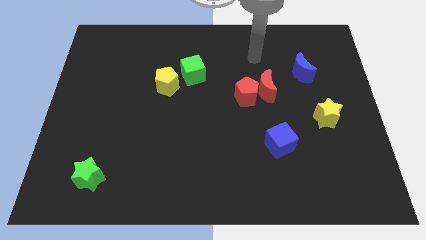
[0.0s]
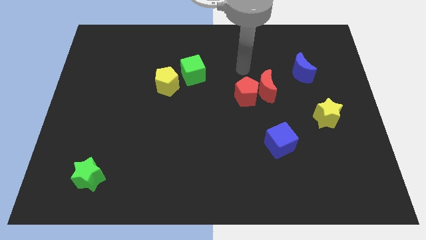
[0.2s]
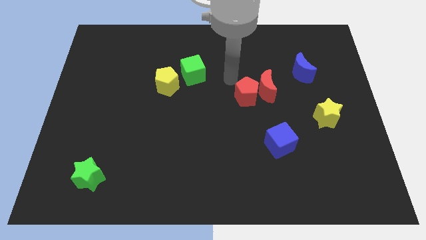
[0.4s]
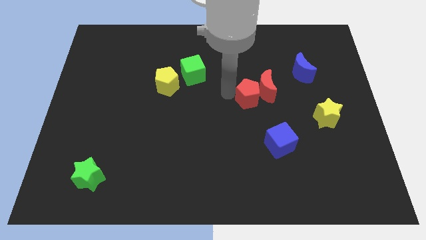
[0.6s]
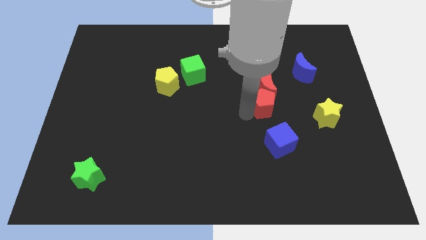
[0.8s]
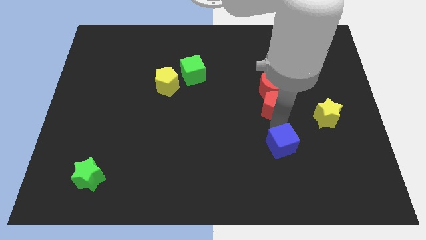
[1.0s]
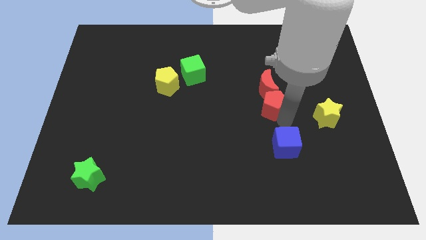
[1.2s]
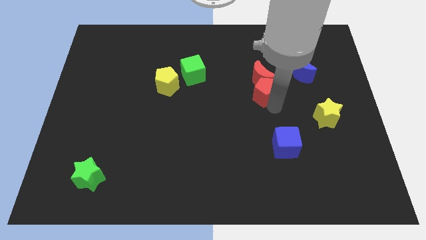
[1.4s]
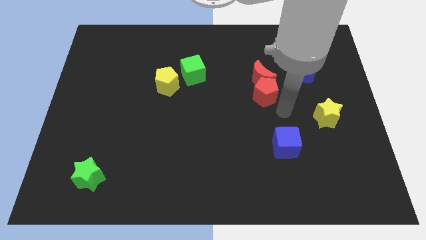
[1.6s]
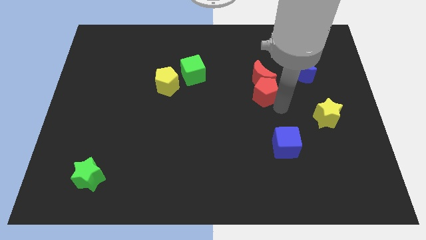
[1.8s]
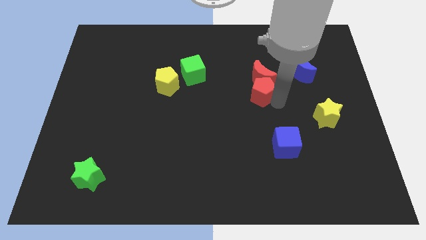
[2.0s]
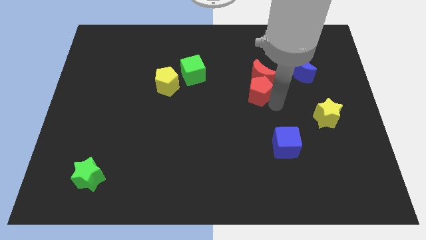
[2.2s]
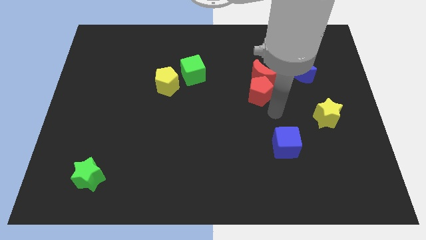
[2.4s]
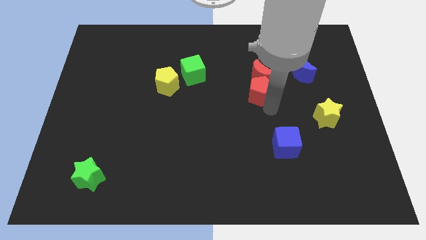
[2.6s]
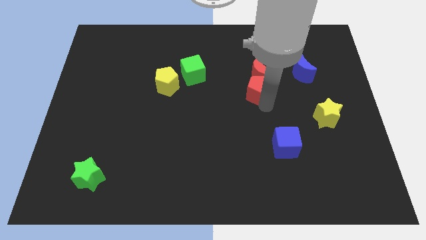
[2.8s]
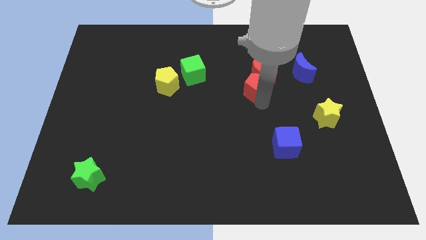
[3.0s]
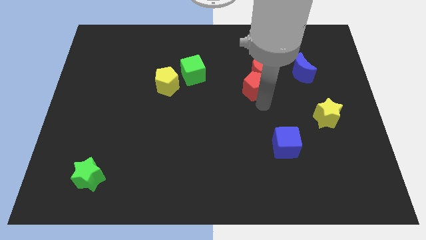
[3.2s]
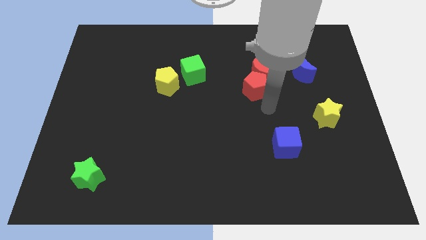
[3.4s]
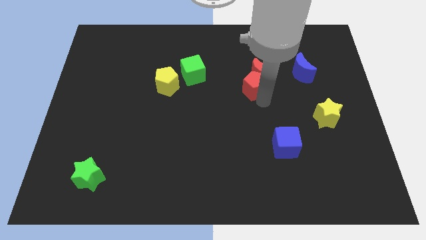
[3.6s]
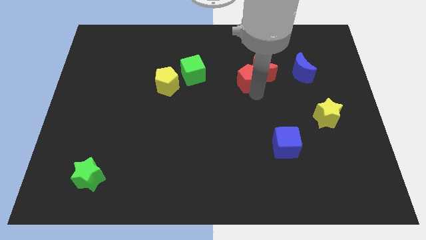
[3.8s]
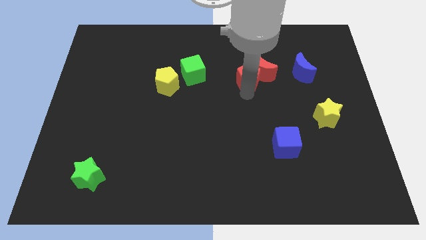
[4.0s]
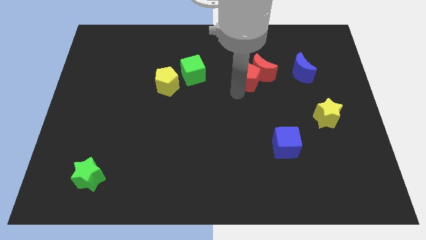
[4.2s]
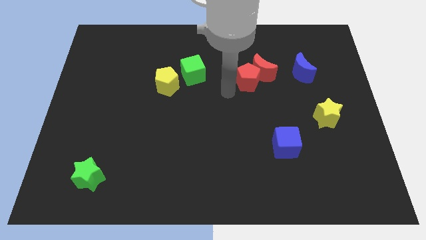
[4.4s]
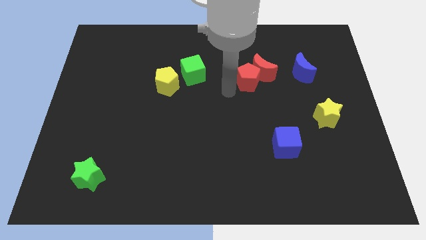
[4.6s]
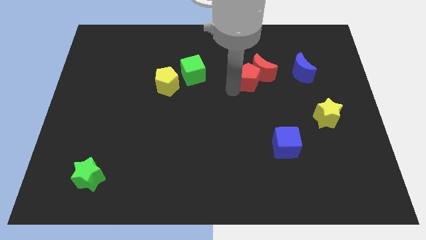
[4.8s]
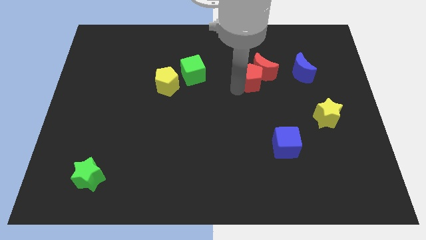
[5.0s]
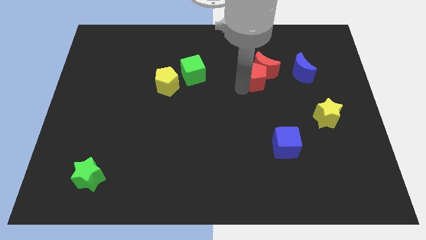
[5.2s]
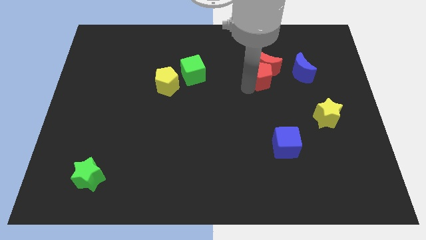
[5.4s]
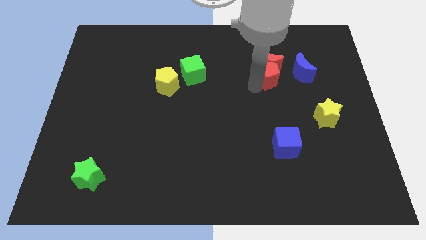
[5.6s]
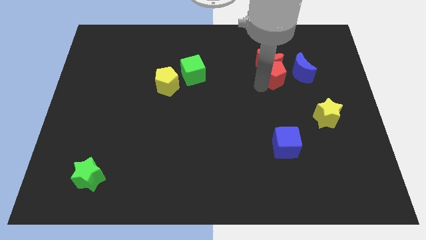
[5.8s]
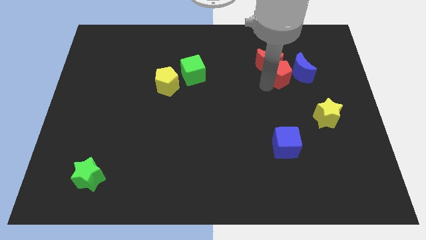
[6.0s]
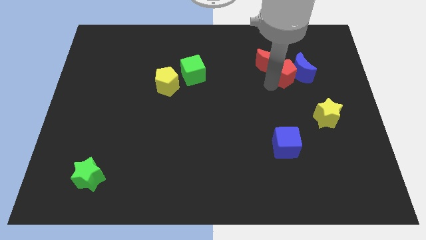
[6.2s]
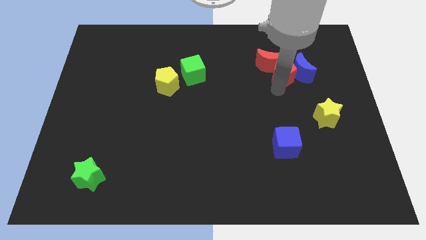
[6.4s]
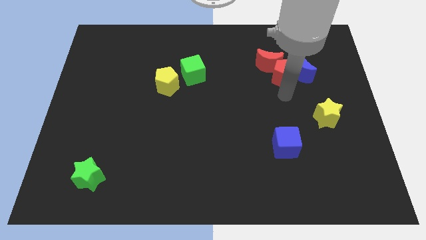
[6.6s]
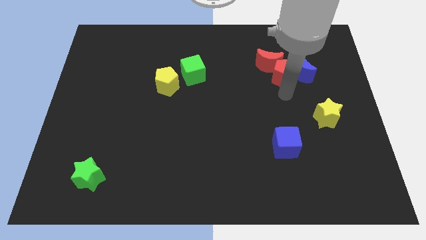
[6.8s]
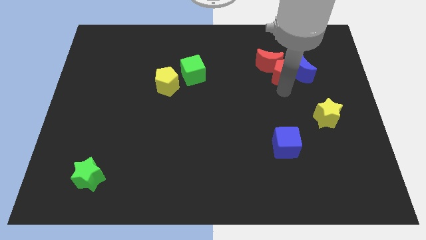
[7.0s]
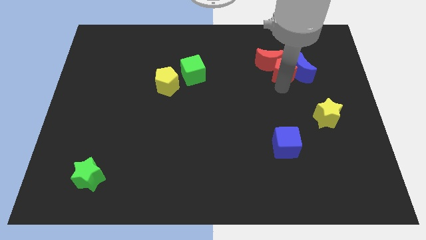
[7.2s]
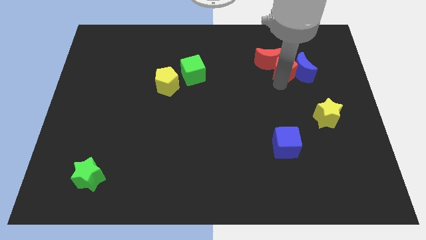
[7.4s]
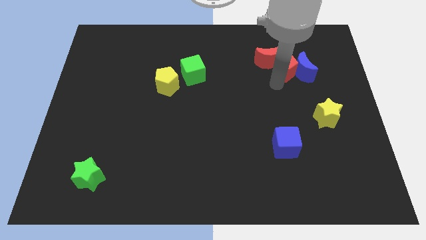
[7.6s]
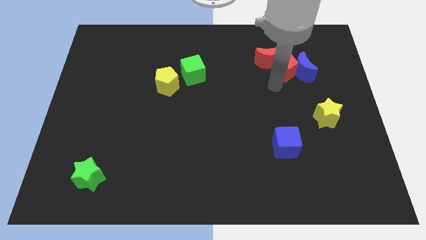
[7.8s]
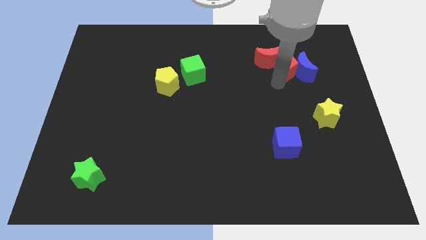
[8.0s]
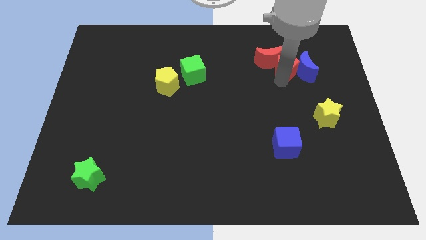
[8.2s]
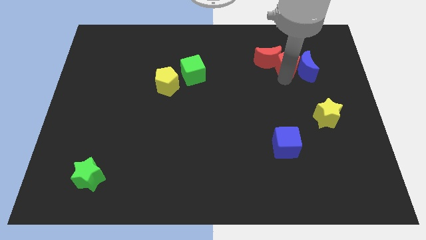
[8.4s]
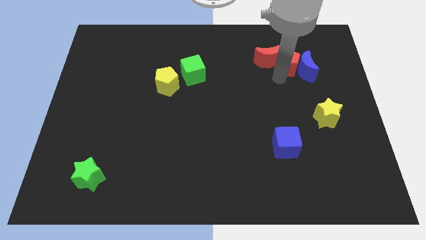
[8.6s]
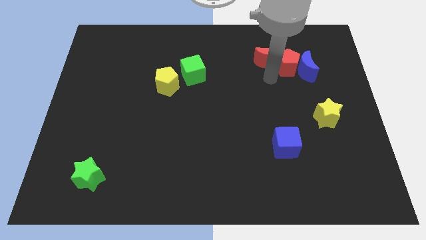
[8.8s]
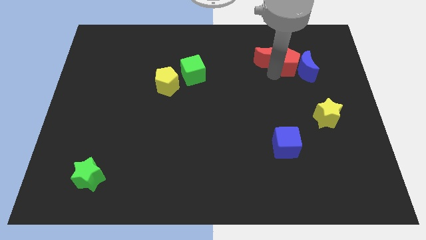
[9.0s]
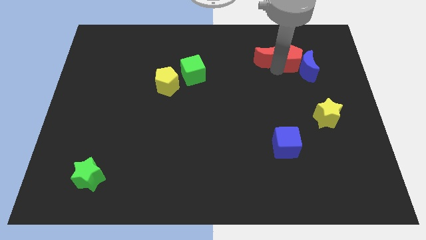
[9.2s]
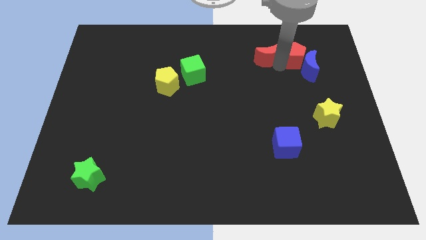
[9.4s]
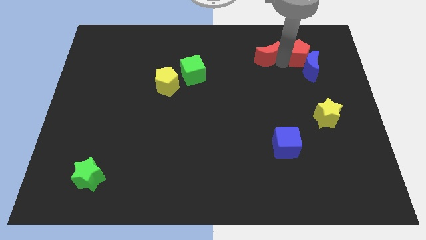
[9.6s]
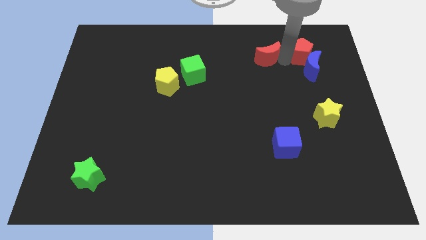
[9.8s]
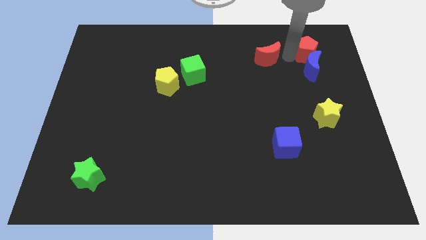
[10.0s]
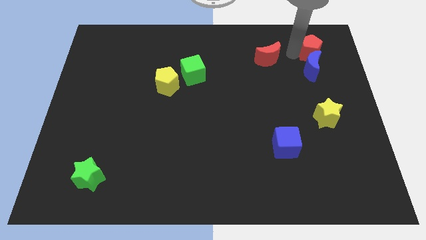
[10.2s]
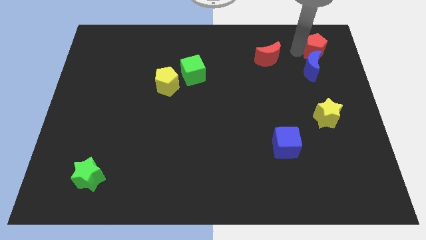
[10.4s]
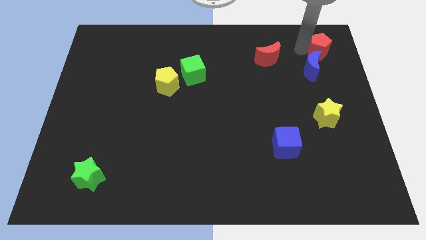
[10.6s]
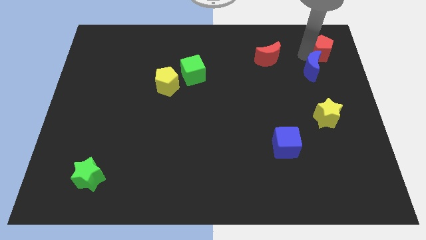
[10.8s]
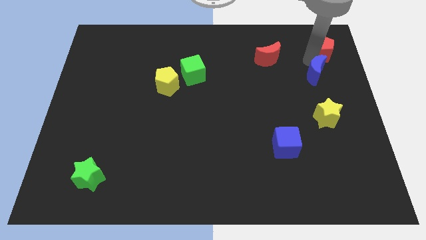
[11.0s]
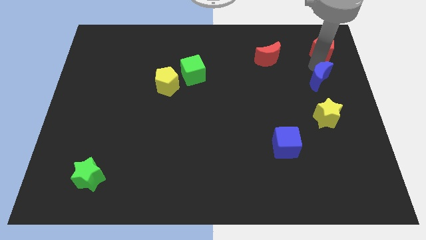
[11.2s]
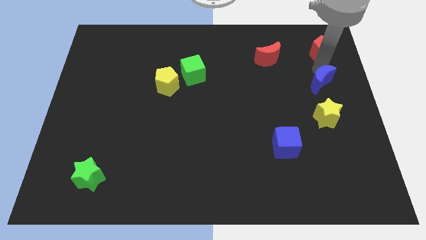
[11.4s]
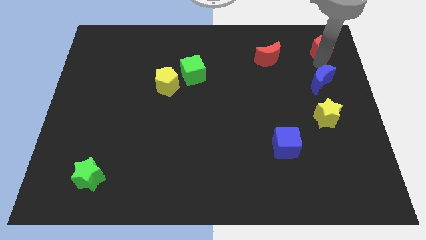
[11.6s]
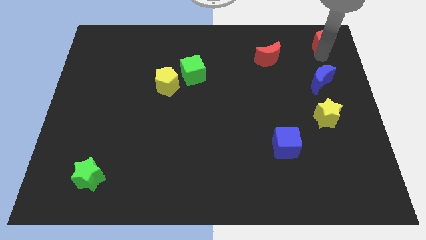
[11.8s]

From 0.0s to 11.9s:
move the red pentagon to the top right corner

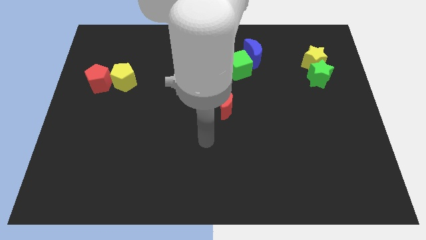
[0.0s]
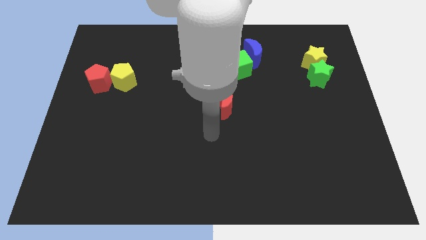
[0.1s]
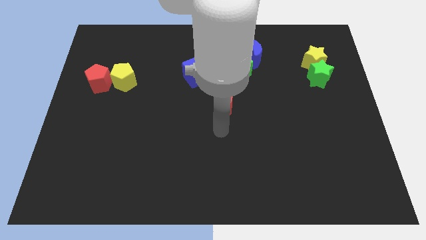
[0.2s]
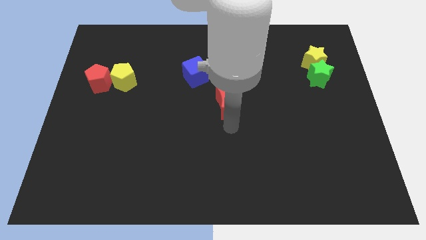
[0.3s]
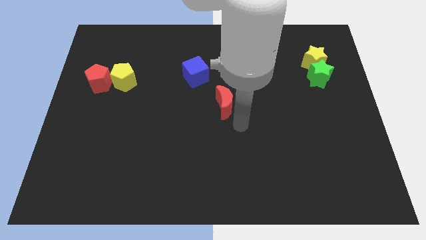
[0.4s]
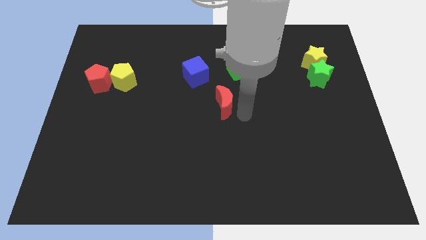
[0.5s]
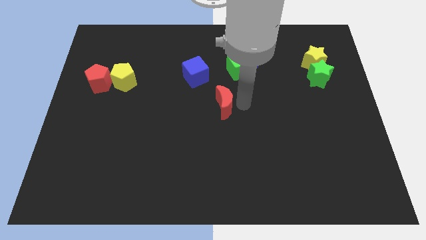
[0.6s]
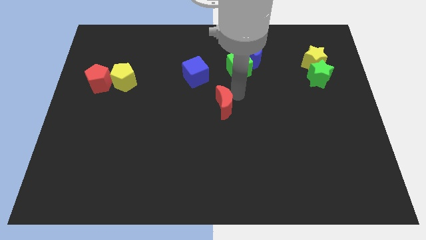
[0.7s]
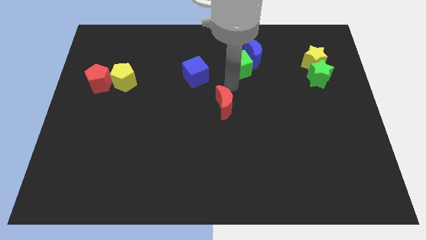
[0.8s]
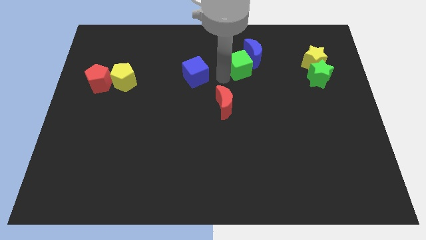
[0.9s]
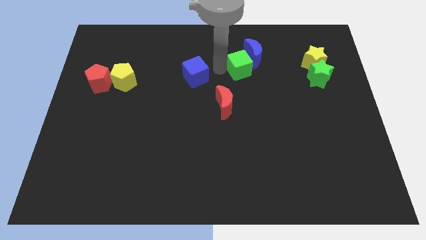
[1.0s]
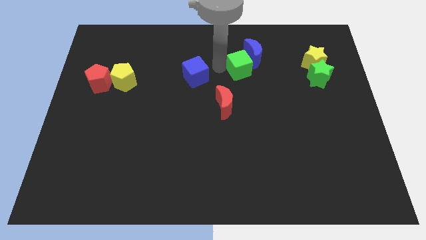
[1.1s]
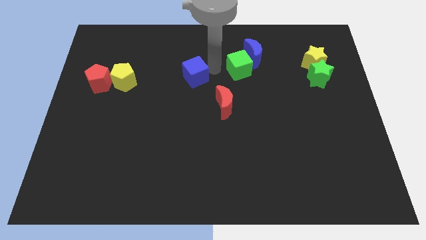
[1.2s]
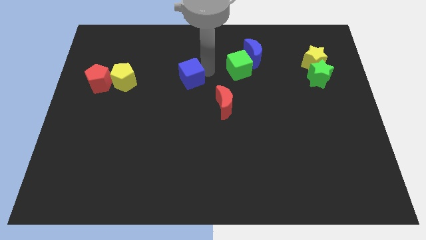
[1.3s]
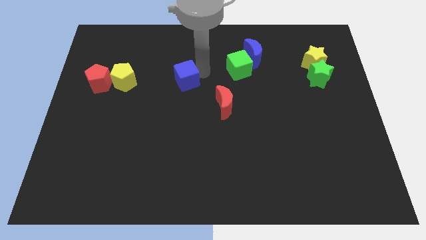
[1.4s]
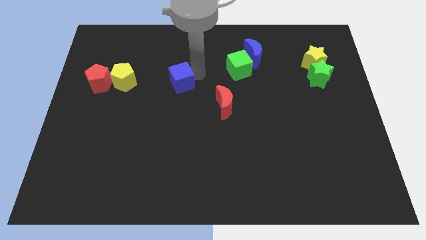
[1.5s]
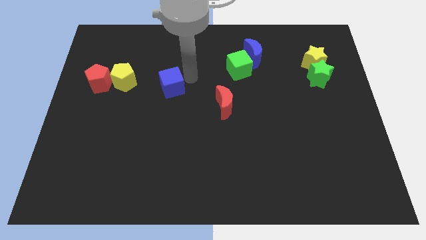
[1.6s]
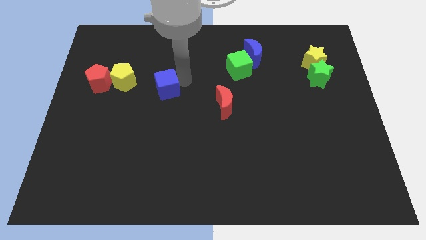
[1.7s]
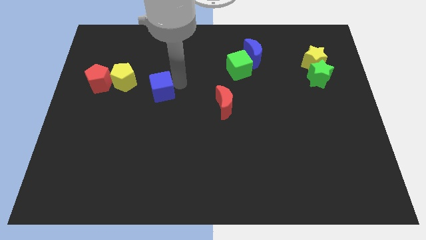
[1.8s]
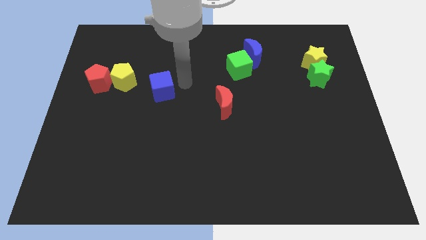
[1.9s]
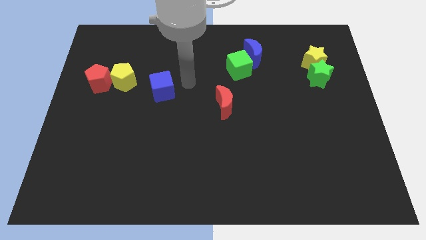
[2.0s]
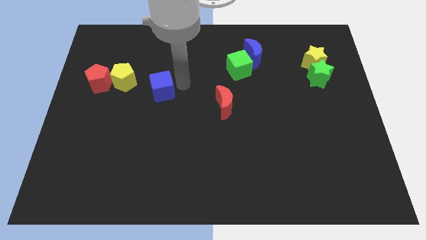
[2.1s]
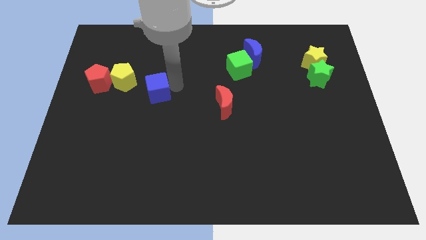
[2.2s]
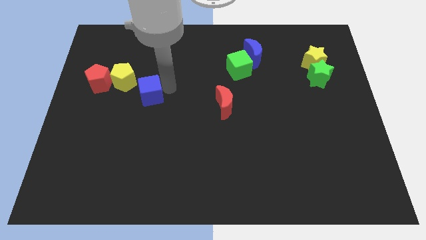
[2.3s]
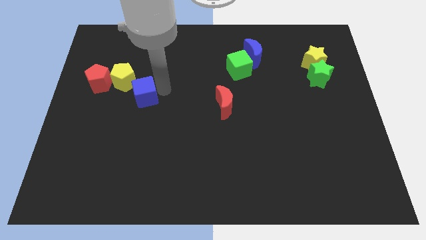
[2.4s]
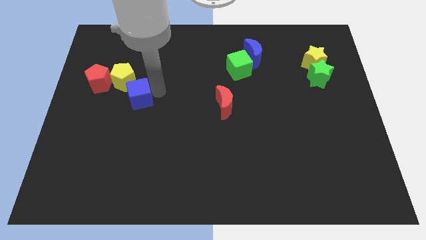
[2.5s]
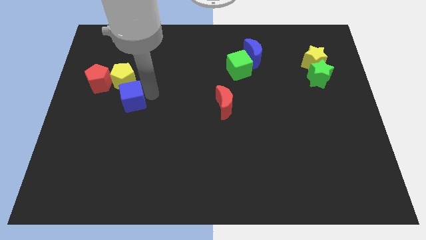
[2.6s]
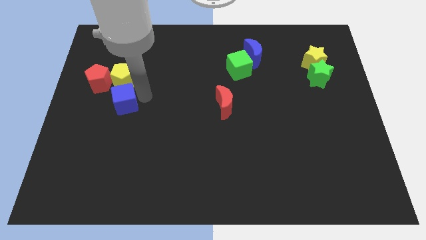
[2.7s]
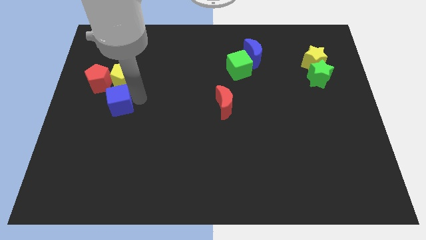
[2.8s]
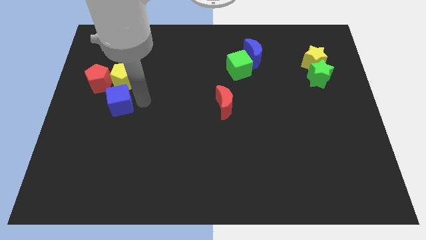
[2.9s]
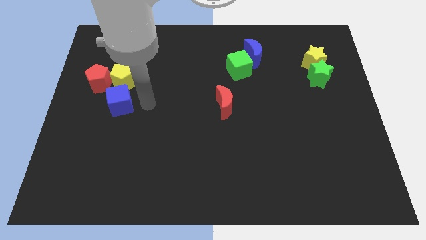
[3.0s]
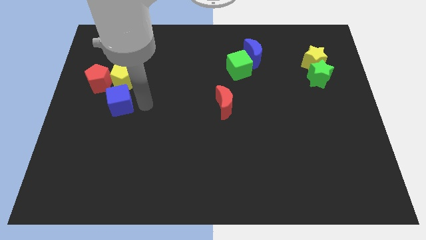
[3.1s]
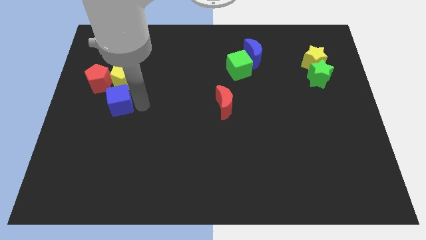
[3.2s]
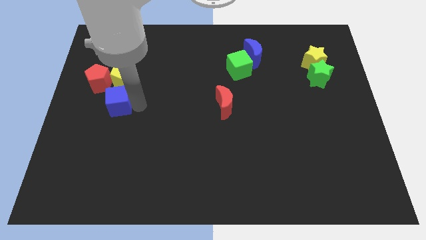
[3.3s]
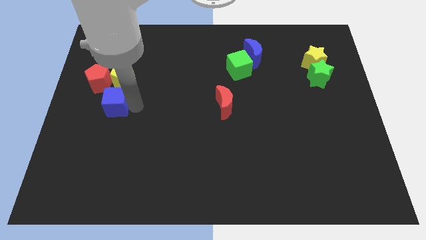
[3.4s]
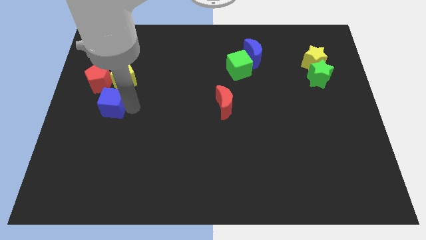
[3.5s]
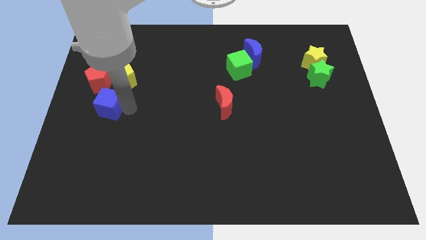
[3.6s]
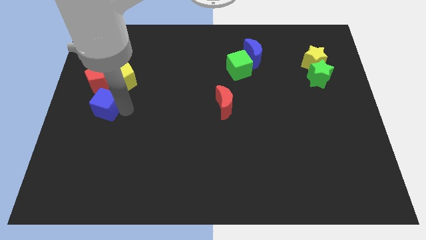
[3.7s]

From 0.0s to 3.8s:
put the blue cube to the left side of the board
